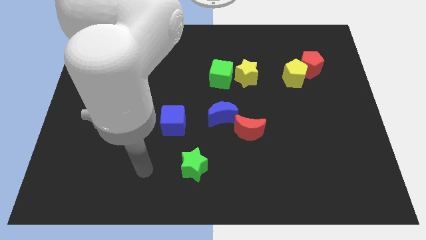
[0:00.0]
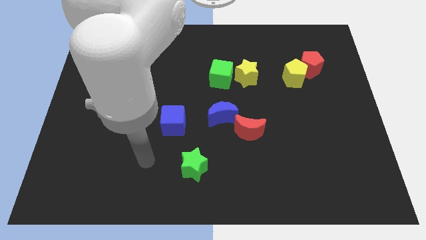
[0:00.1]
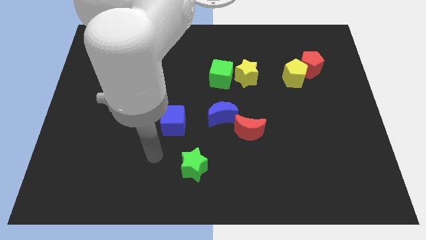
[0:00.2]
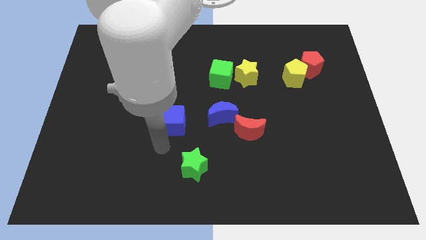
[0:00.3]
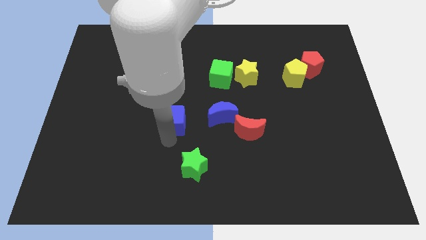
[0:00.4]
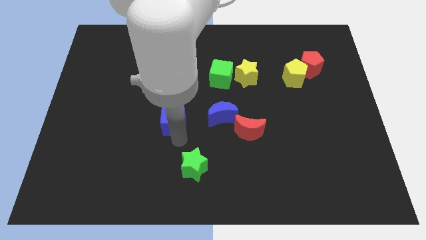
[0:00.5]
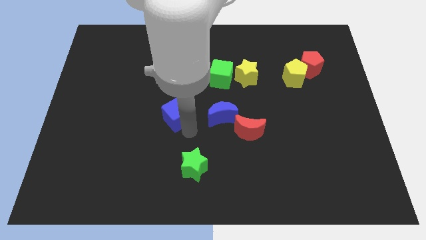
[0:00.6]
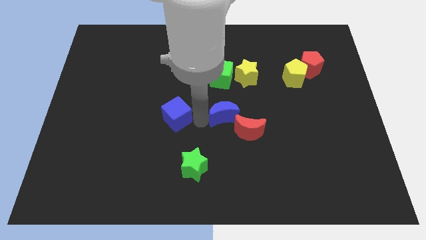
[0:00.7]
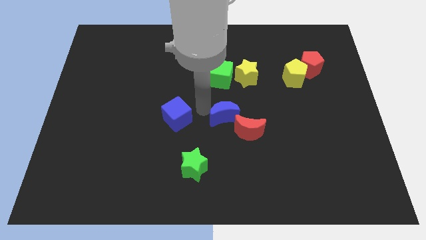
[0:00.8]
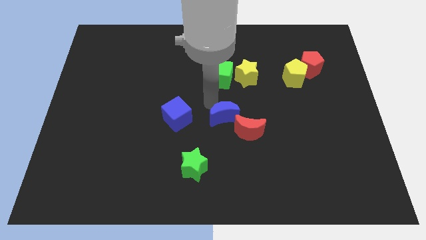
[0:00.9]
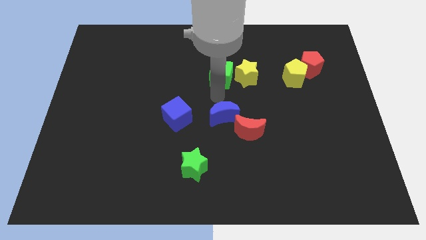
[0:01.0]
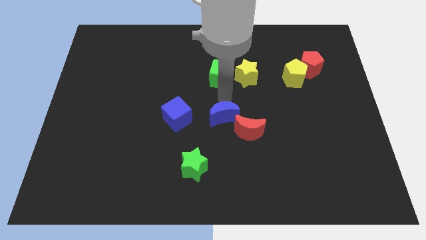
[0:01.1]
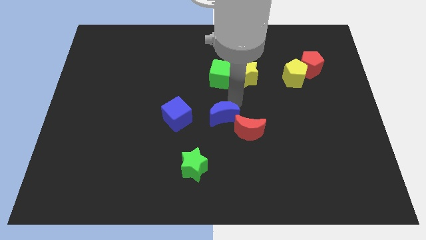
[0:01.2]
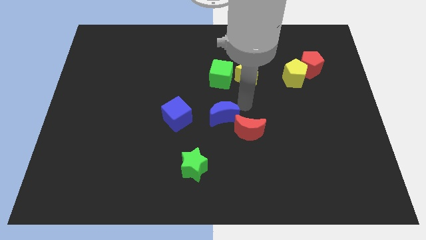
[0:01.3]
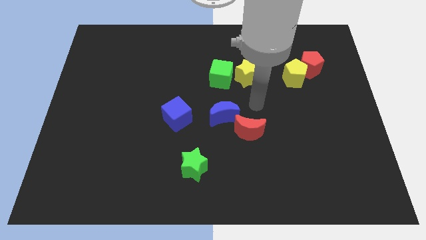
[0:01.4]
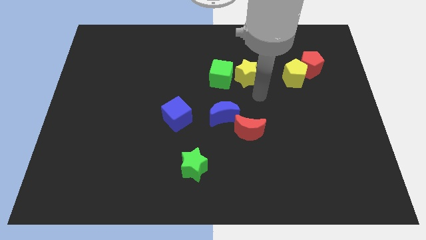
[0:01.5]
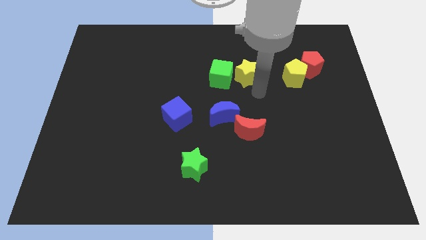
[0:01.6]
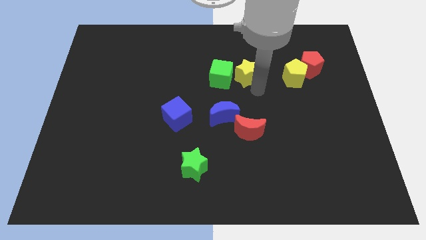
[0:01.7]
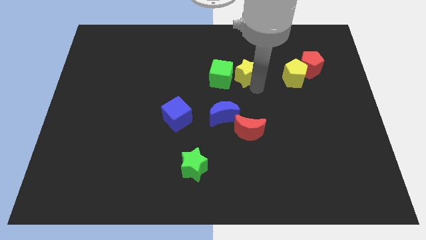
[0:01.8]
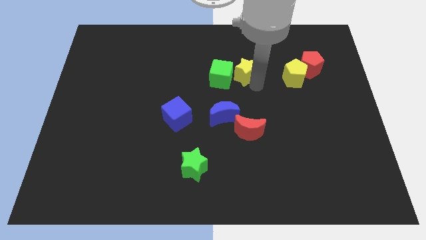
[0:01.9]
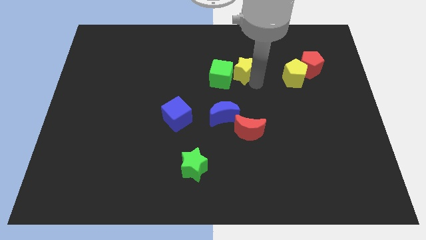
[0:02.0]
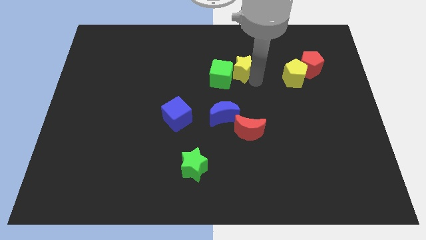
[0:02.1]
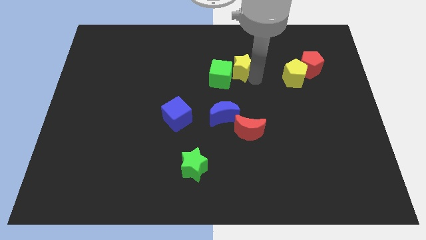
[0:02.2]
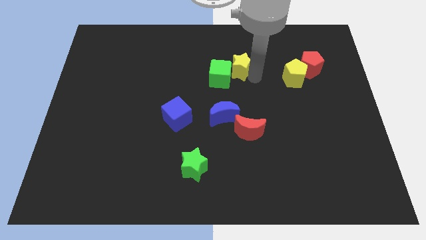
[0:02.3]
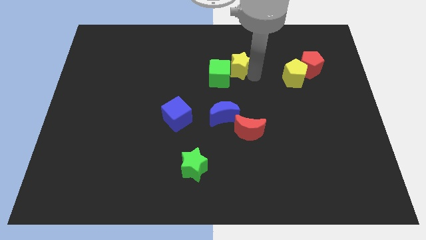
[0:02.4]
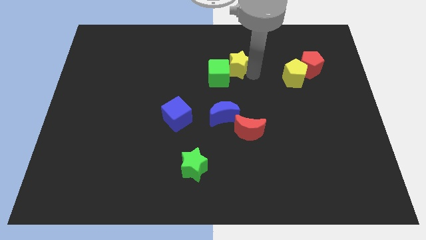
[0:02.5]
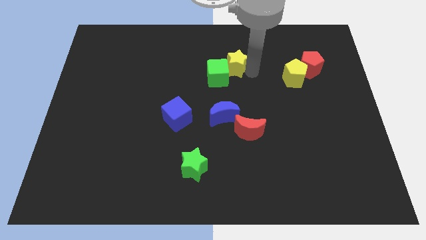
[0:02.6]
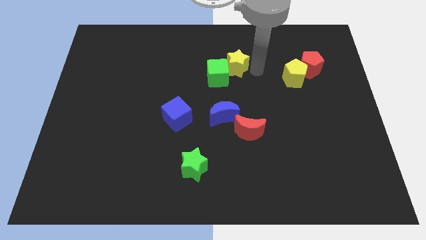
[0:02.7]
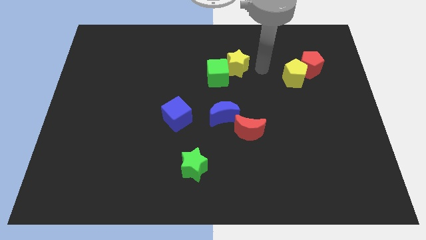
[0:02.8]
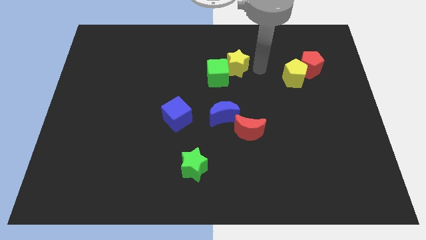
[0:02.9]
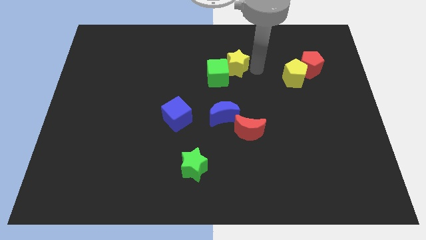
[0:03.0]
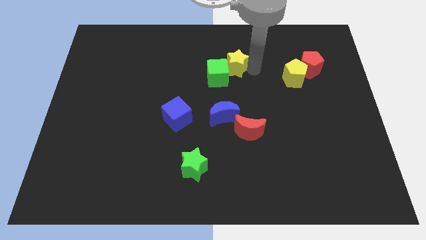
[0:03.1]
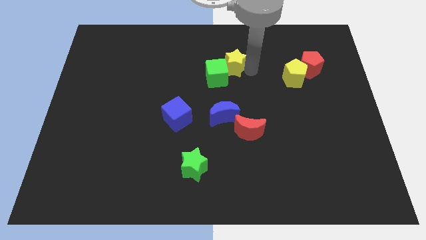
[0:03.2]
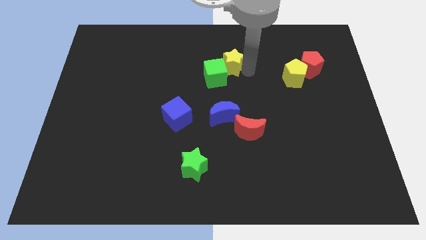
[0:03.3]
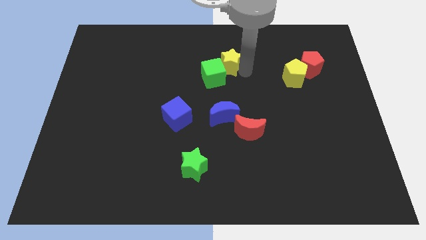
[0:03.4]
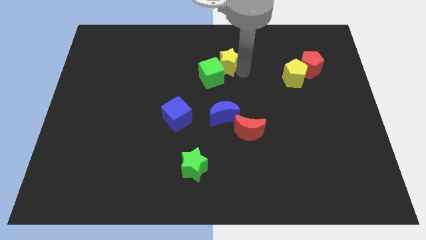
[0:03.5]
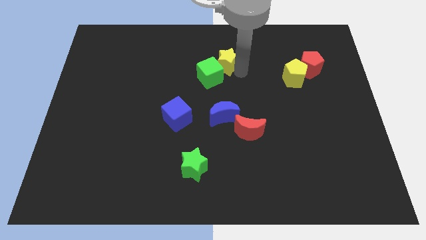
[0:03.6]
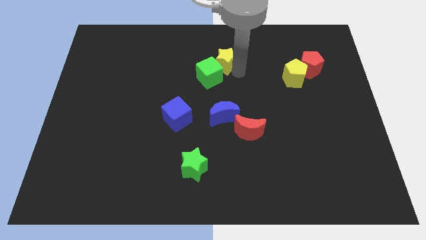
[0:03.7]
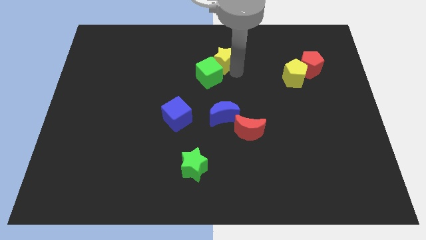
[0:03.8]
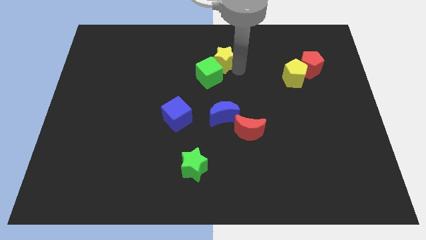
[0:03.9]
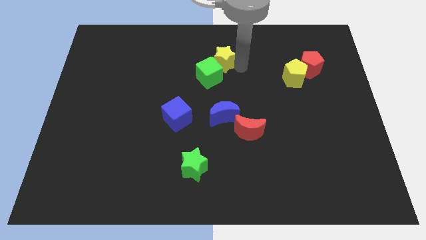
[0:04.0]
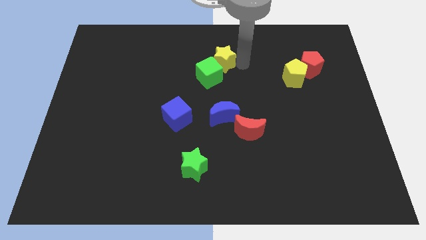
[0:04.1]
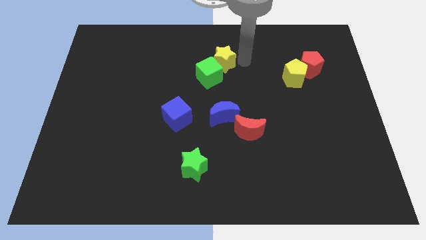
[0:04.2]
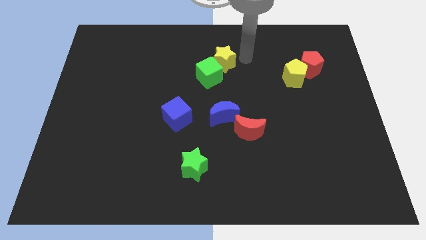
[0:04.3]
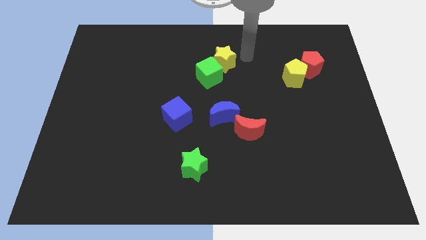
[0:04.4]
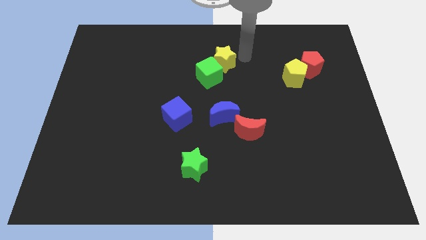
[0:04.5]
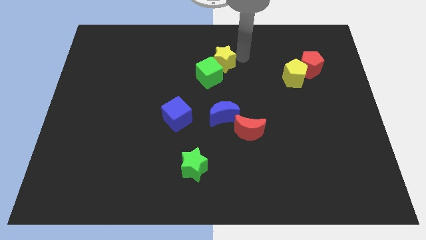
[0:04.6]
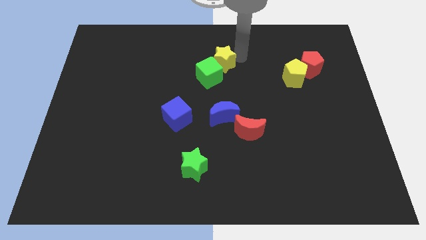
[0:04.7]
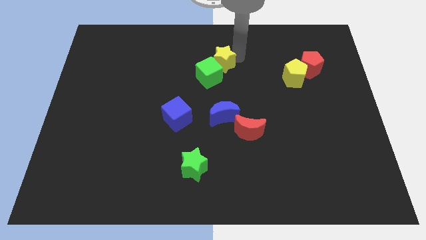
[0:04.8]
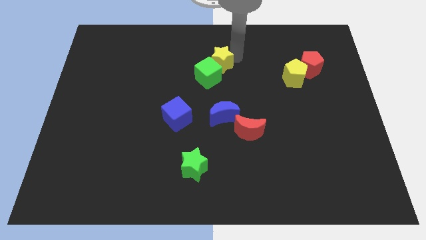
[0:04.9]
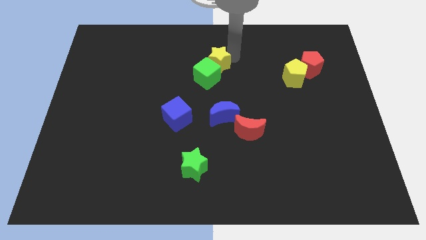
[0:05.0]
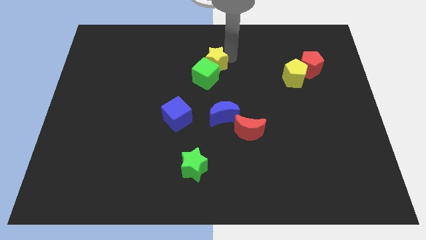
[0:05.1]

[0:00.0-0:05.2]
slide the yellow star to the left somewhat

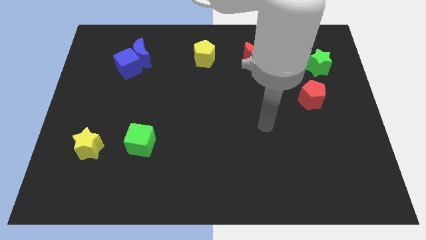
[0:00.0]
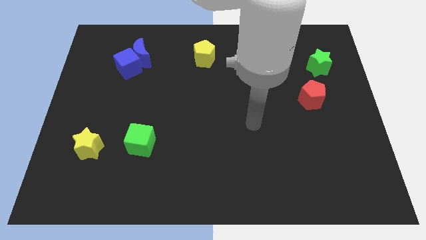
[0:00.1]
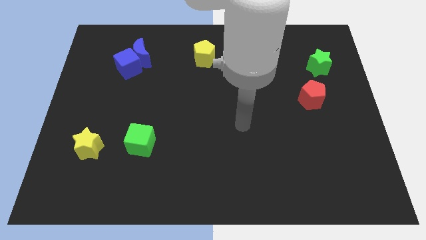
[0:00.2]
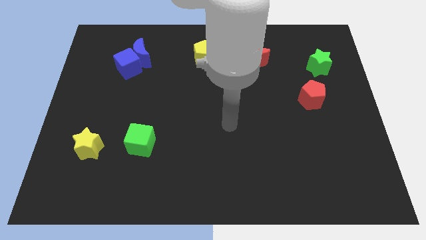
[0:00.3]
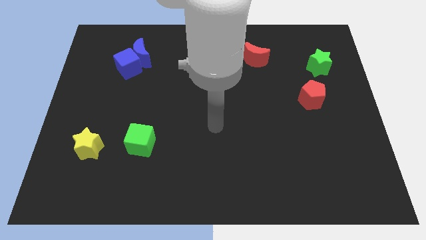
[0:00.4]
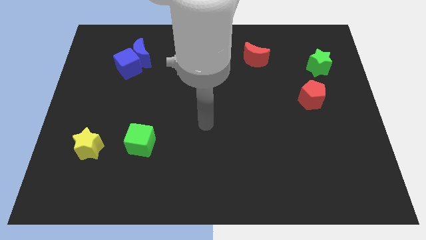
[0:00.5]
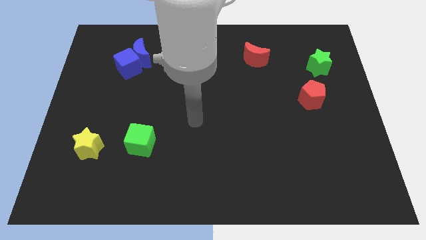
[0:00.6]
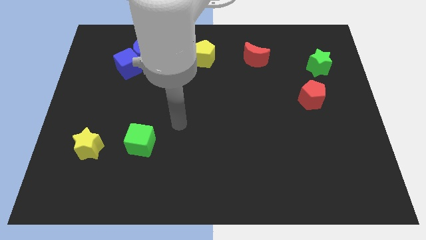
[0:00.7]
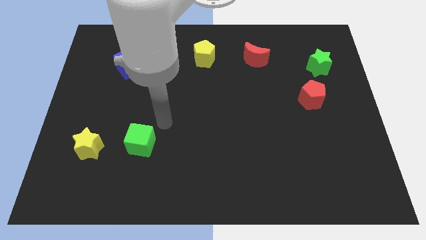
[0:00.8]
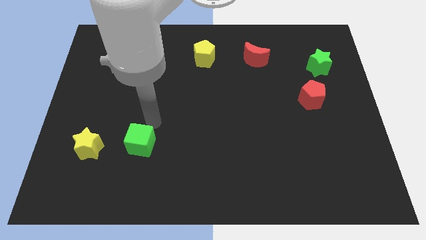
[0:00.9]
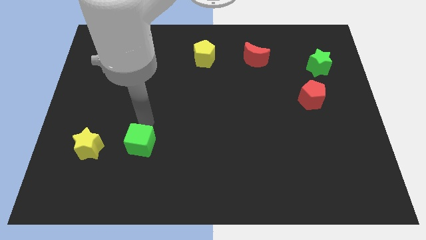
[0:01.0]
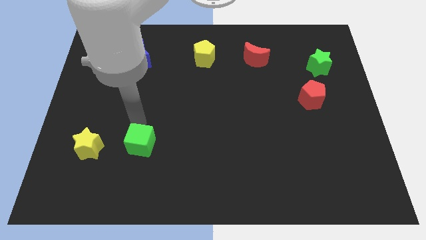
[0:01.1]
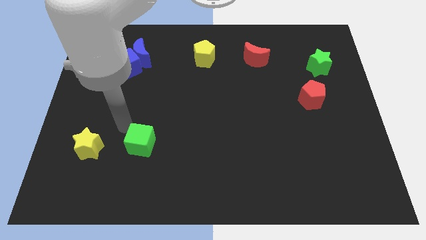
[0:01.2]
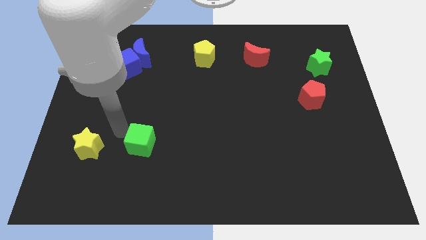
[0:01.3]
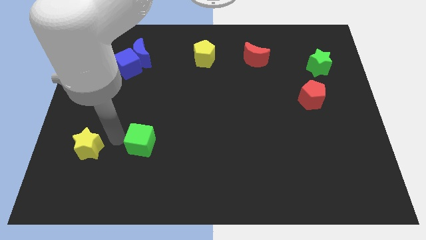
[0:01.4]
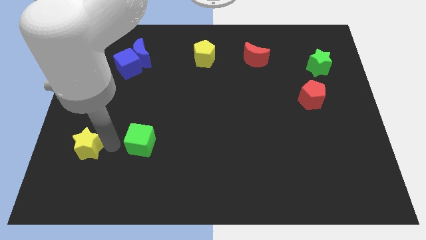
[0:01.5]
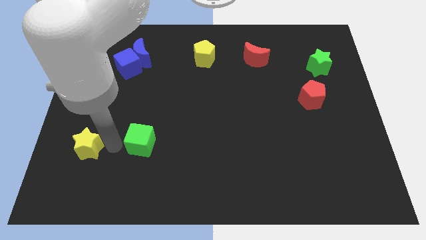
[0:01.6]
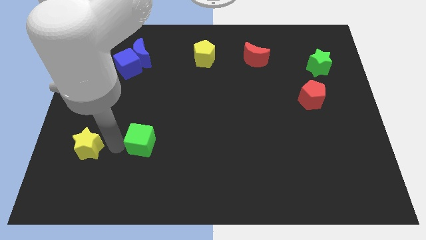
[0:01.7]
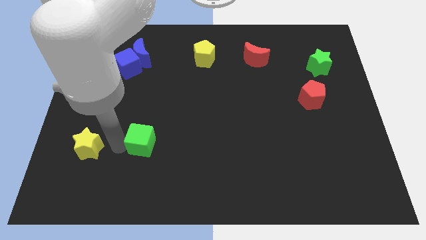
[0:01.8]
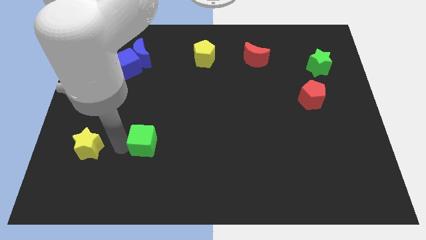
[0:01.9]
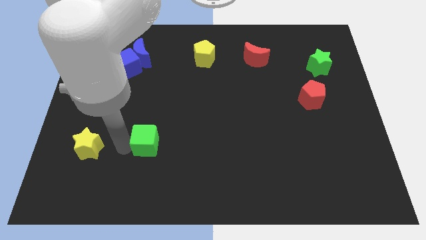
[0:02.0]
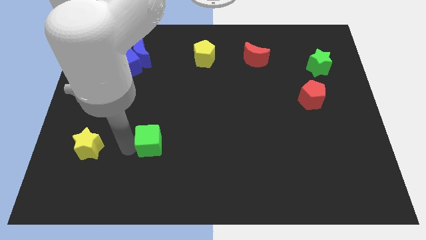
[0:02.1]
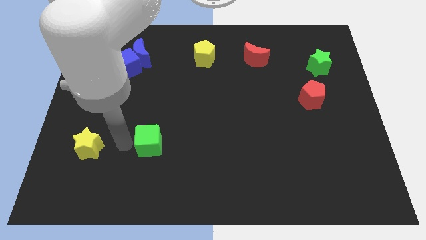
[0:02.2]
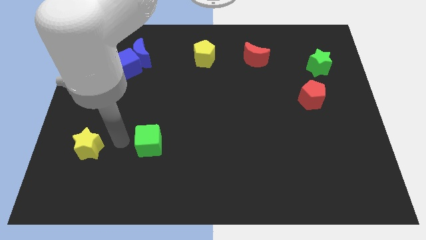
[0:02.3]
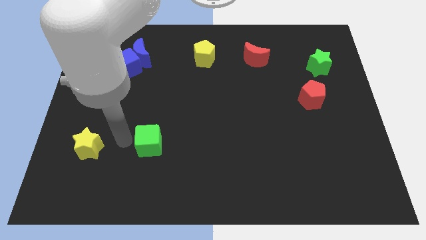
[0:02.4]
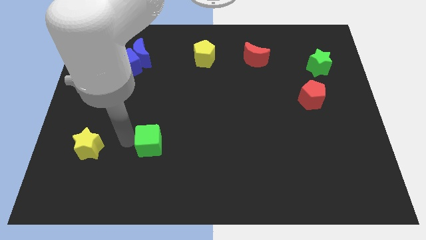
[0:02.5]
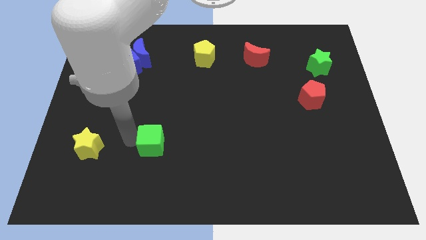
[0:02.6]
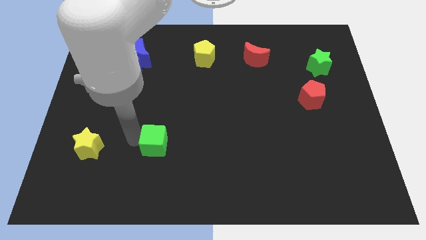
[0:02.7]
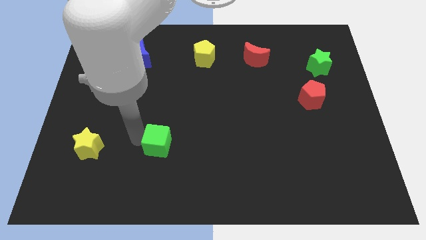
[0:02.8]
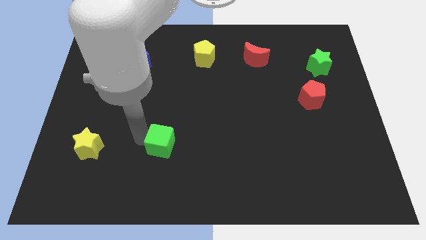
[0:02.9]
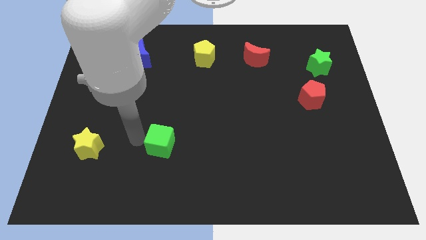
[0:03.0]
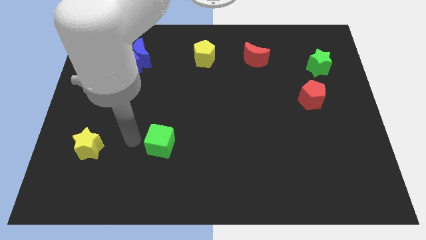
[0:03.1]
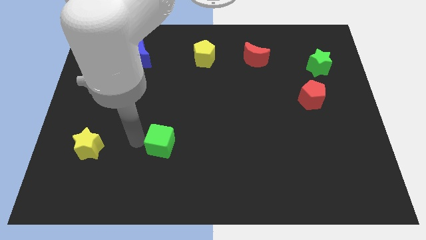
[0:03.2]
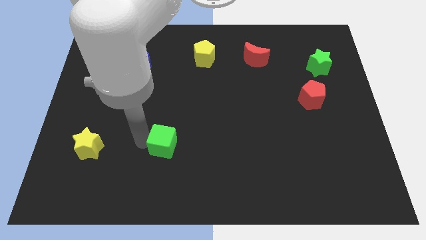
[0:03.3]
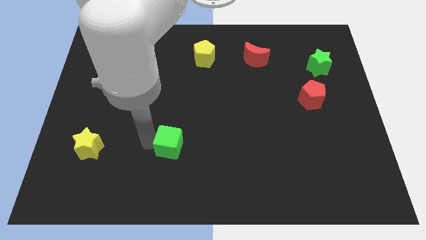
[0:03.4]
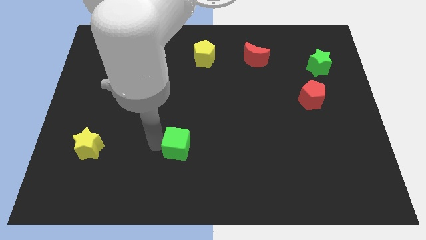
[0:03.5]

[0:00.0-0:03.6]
slide the green cube a little to the right
